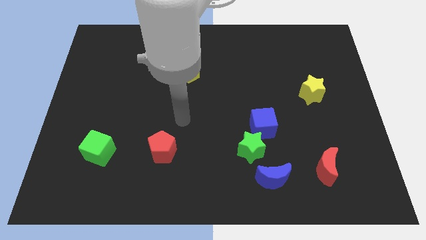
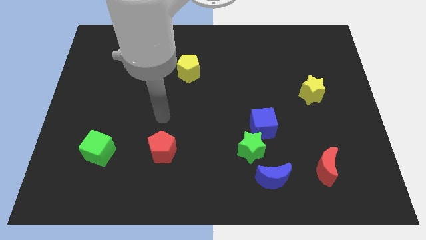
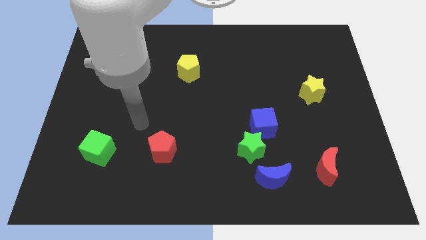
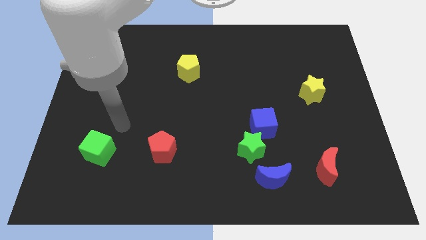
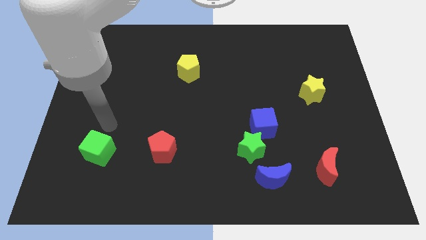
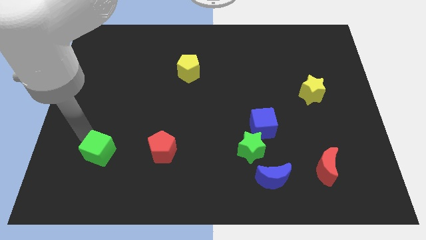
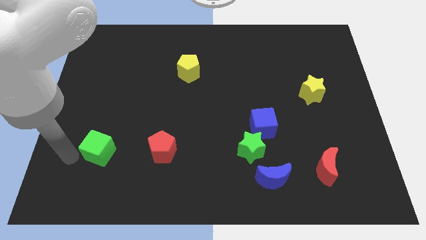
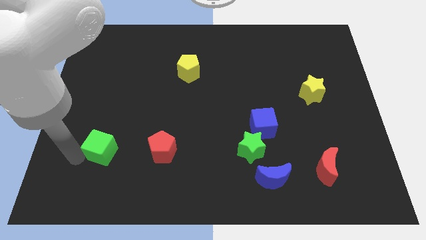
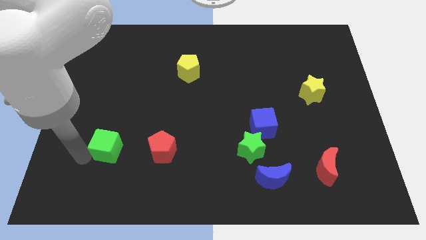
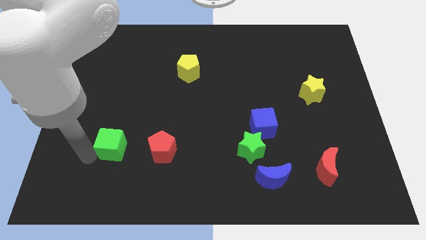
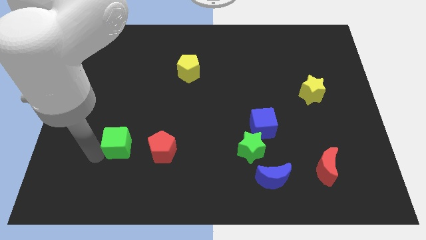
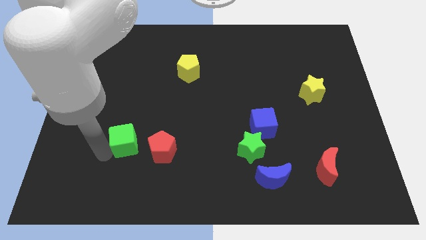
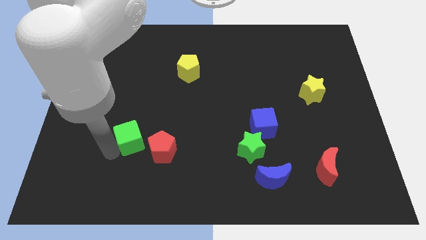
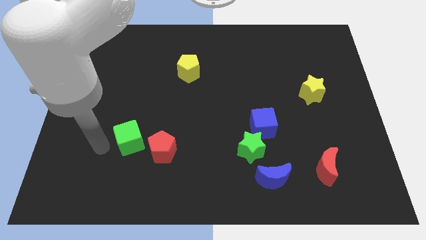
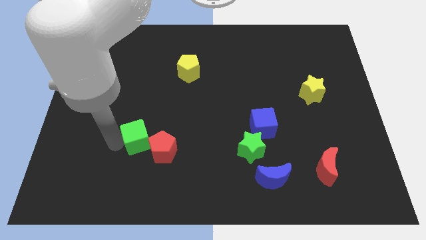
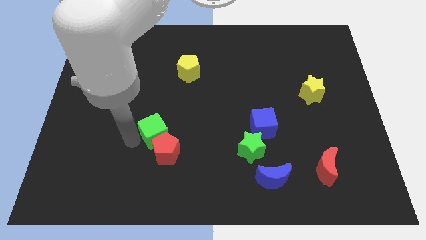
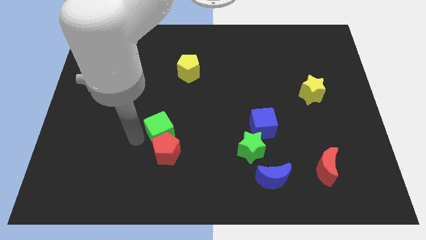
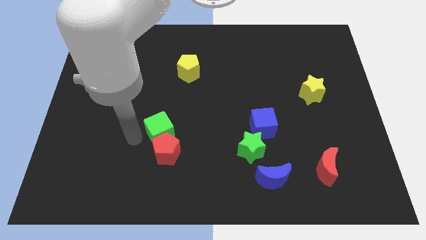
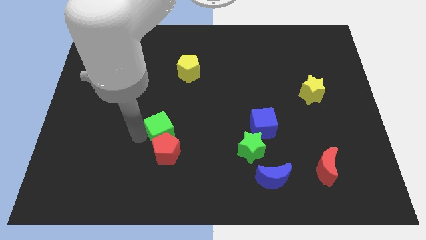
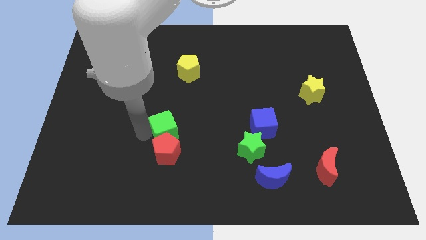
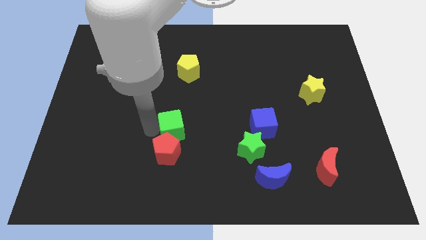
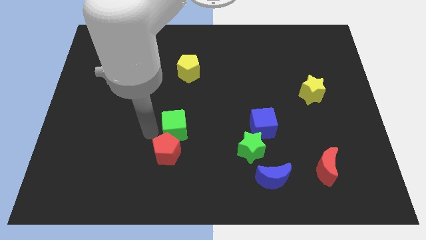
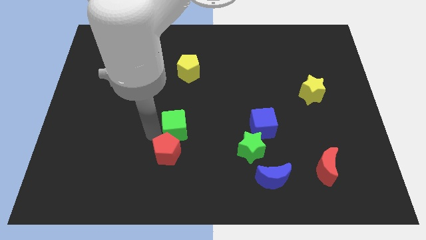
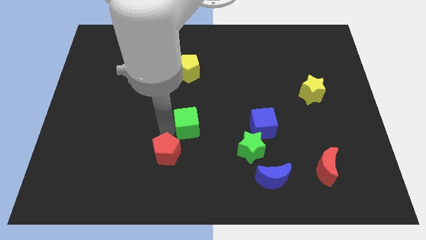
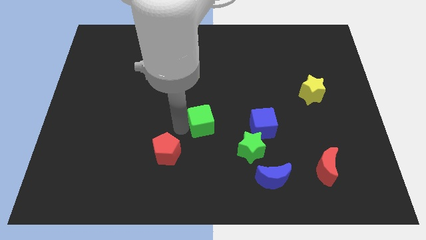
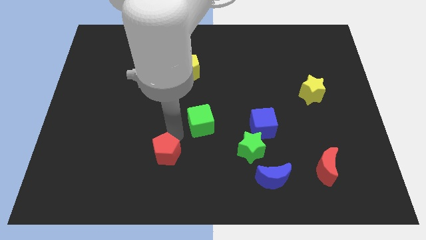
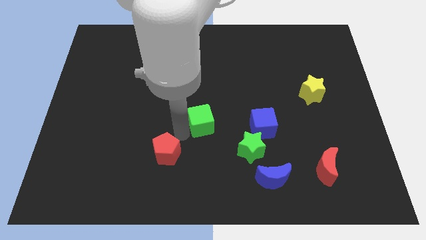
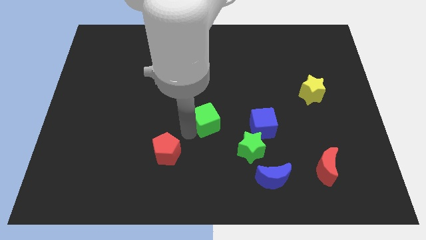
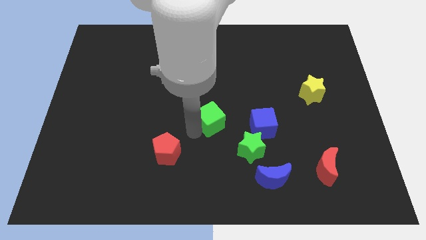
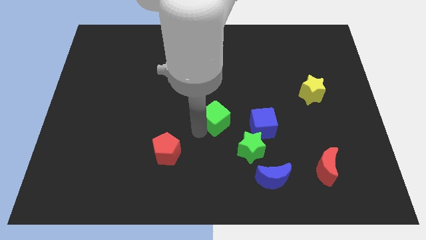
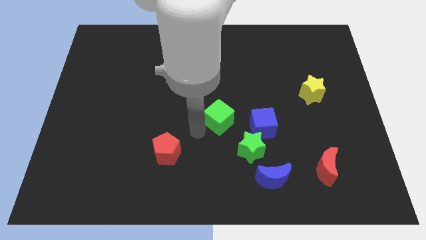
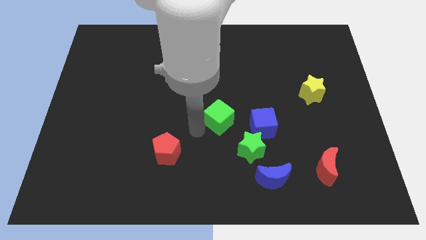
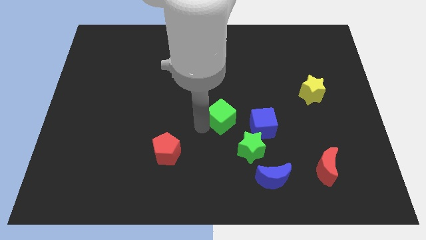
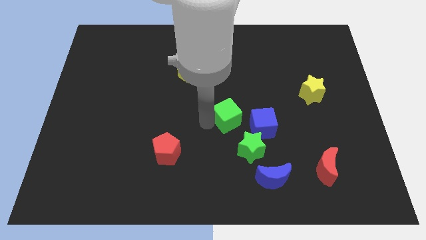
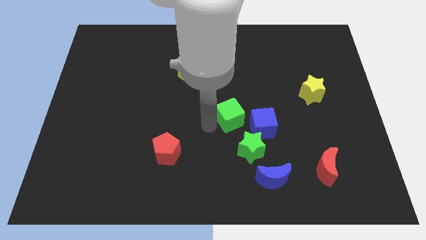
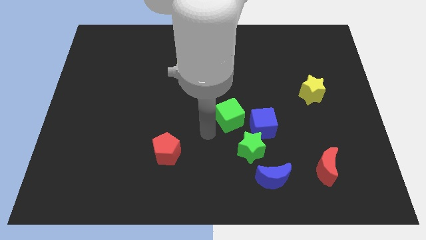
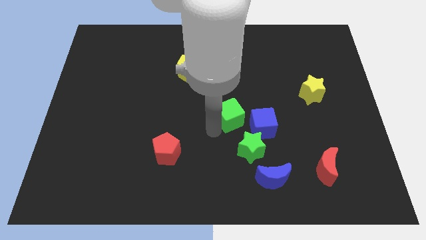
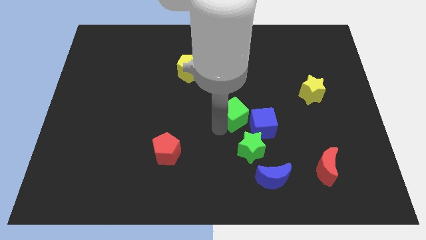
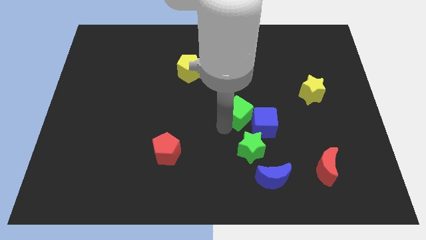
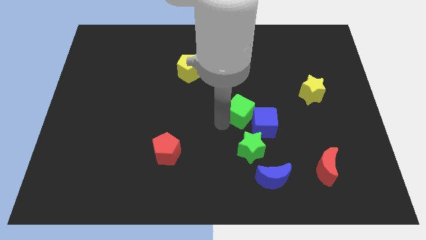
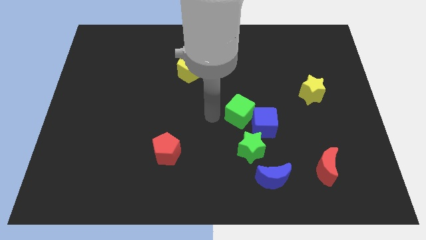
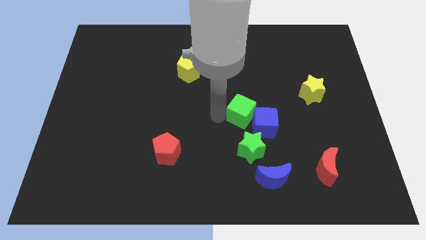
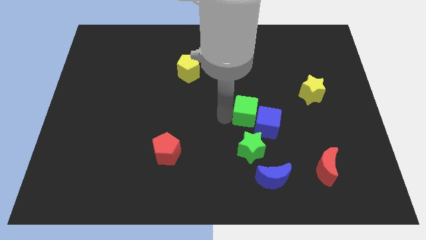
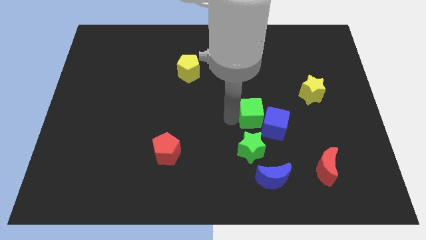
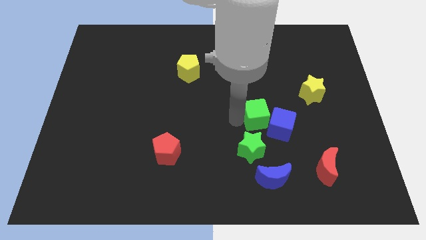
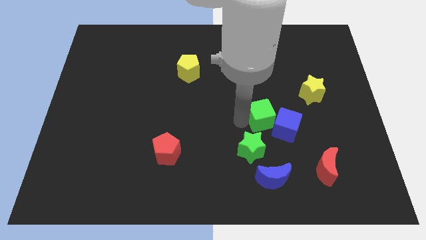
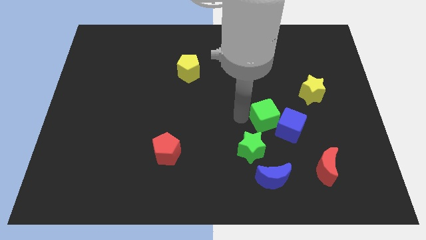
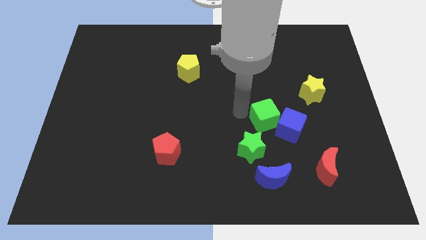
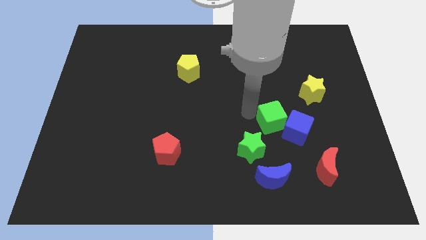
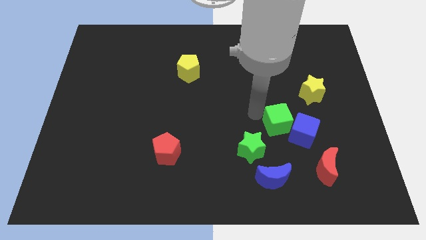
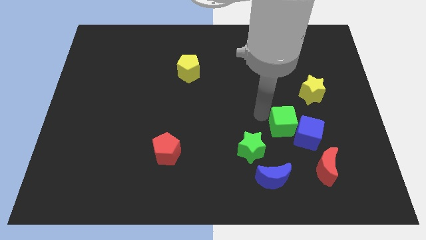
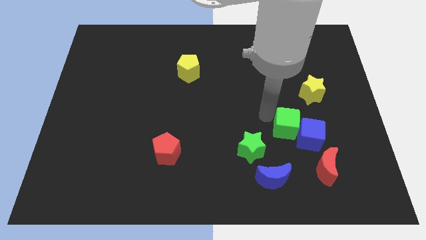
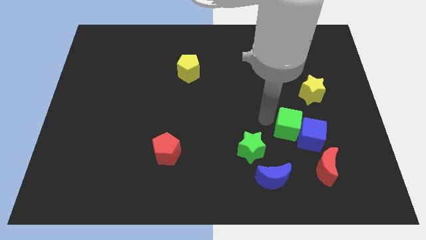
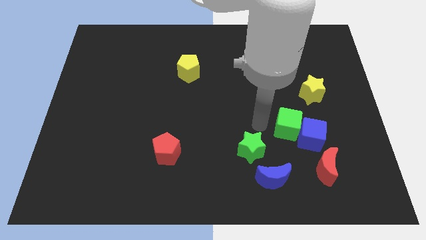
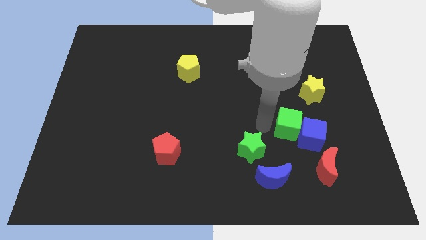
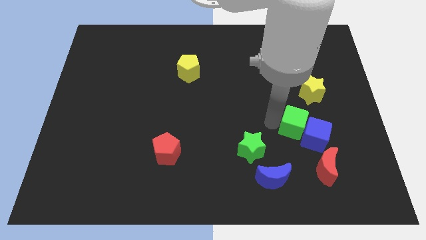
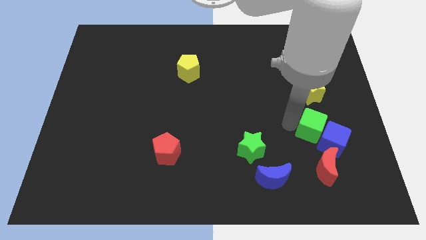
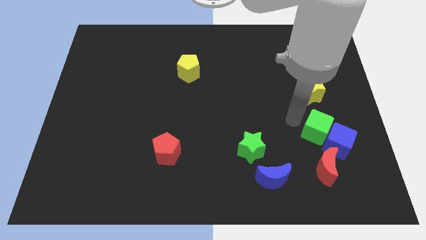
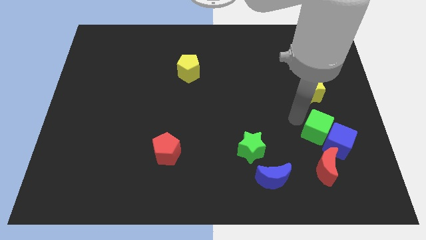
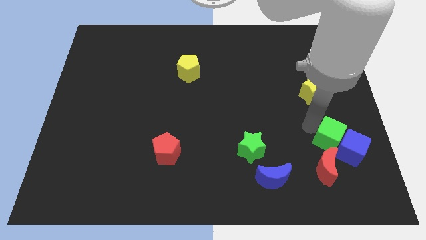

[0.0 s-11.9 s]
move the green cube to the top right of the red moon

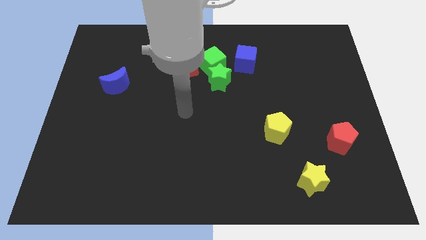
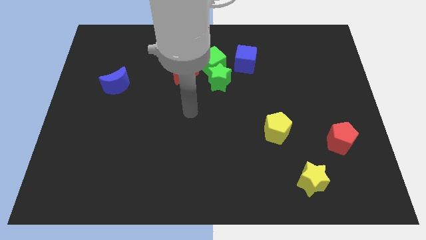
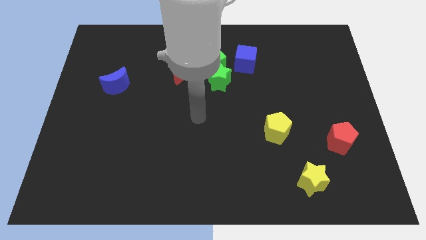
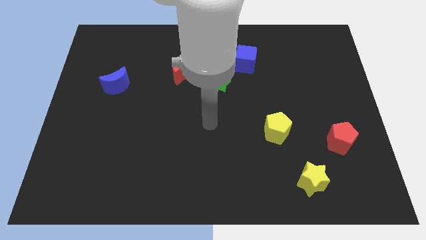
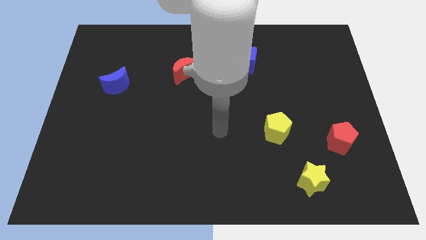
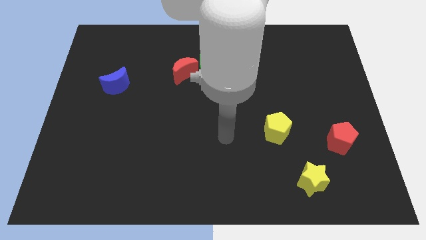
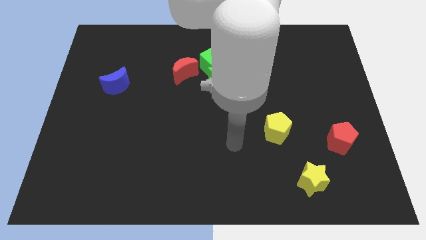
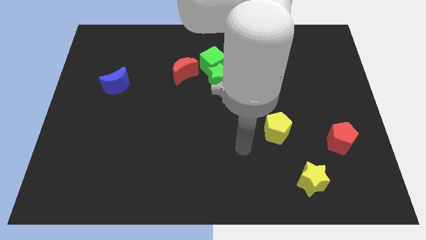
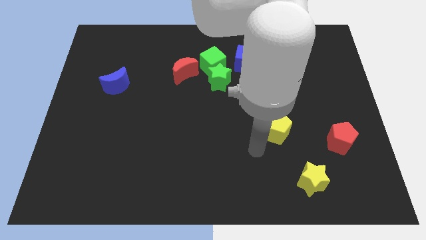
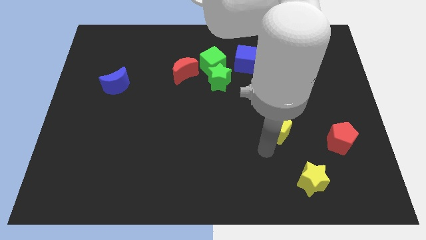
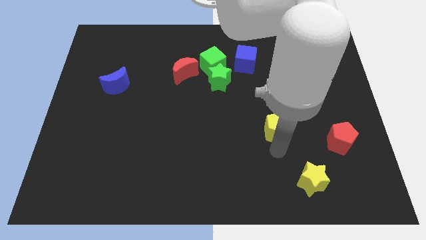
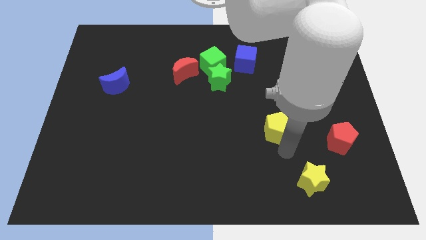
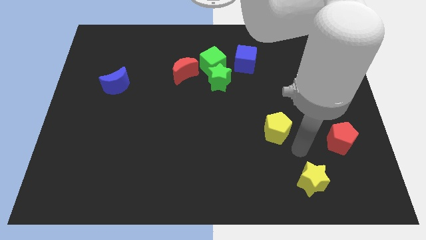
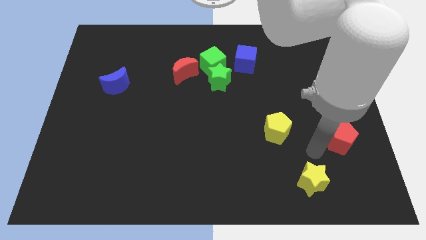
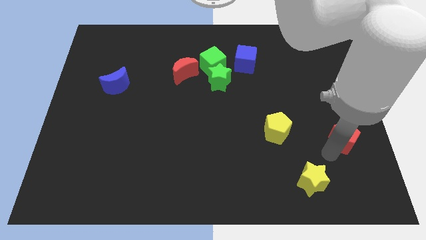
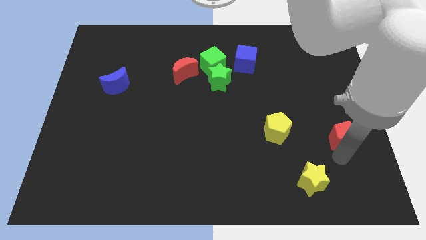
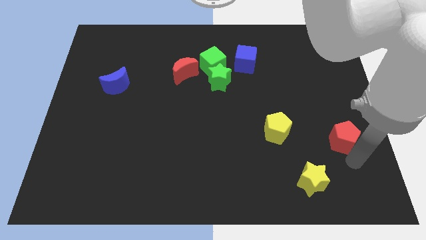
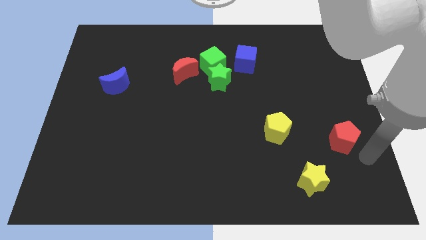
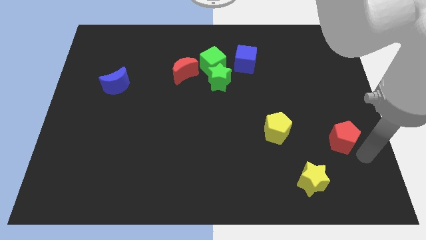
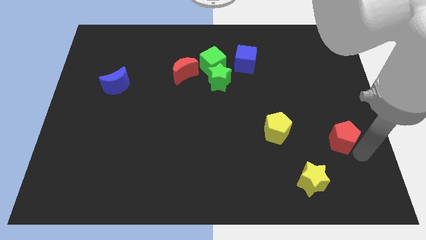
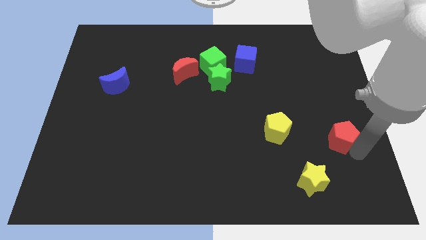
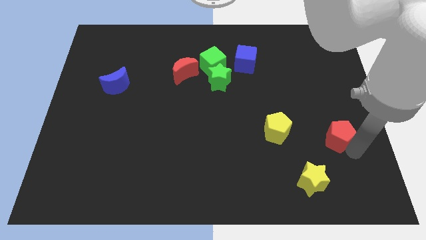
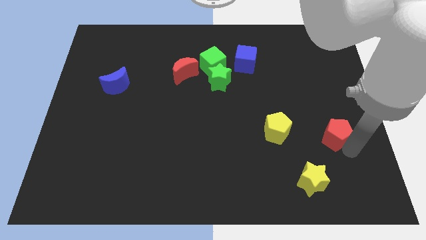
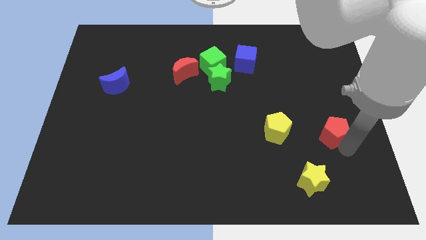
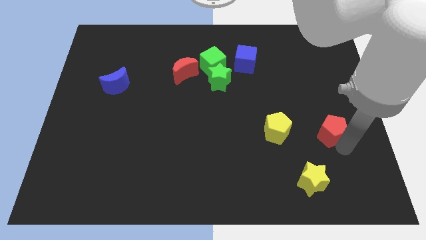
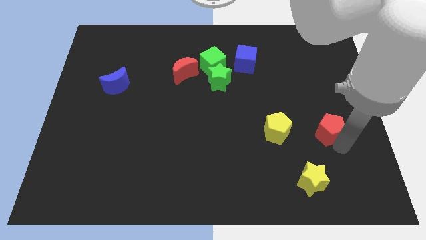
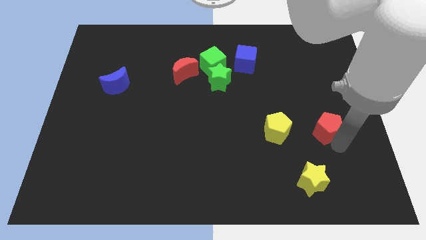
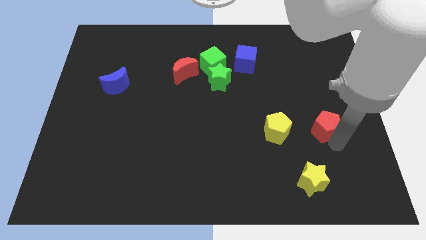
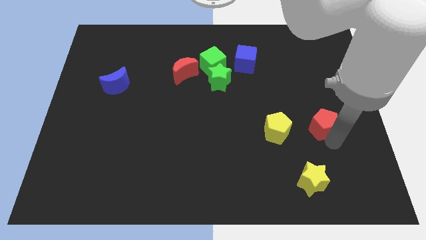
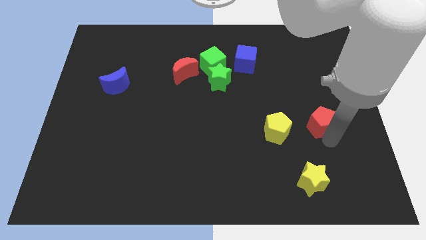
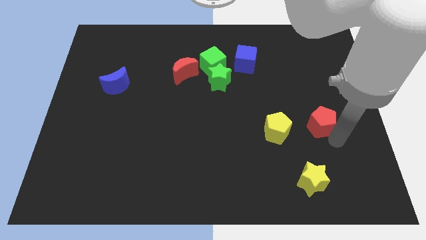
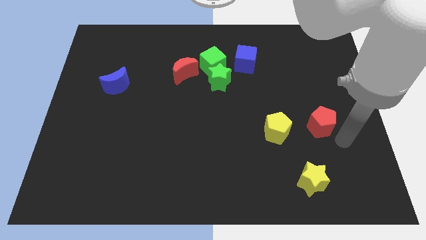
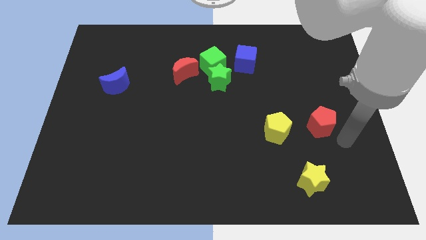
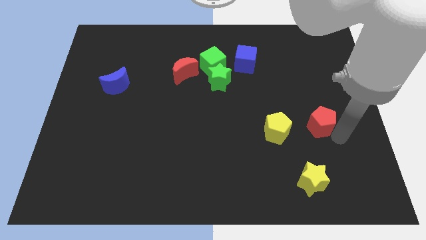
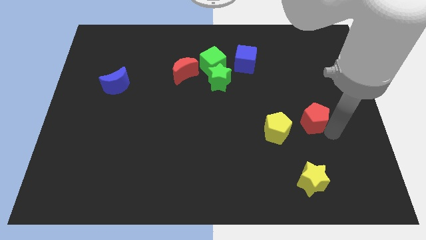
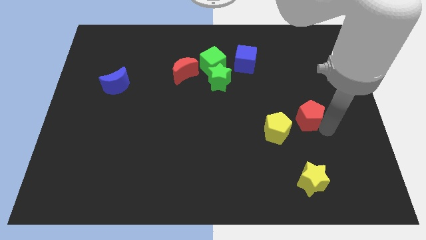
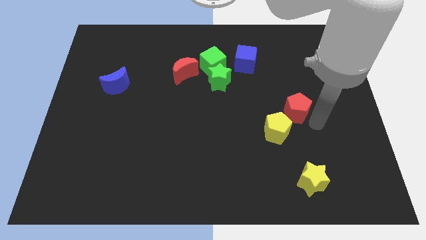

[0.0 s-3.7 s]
move the red pentagon to the top side of the yellow pentagon
